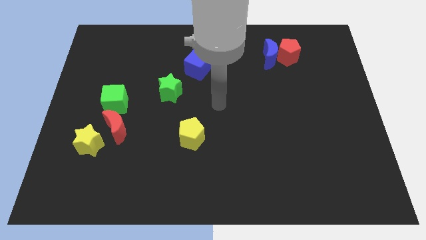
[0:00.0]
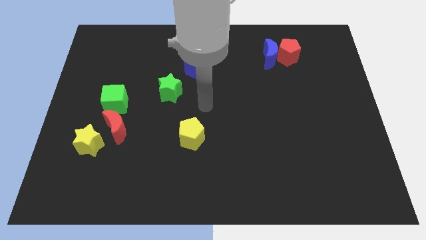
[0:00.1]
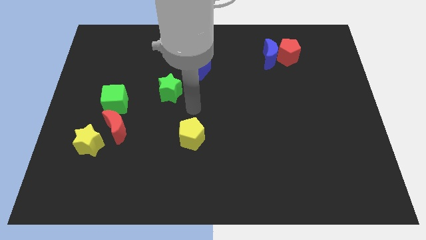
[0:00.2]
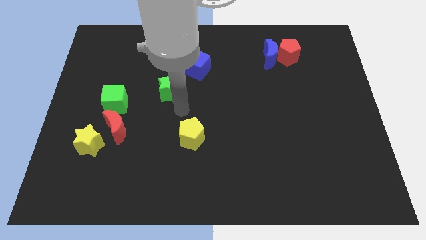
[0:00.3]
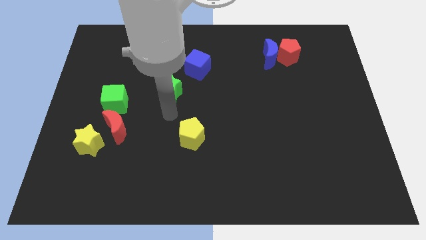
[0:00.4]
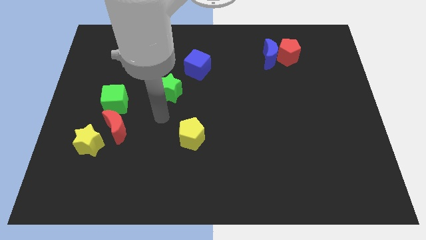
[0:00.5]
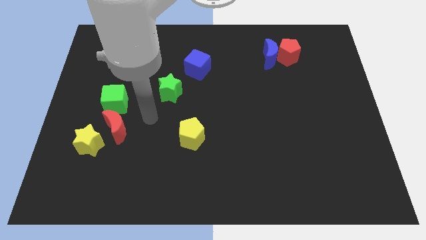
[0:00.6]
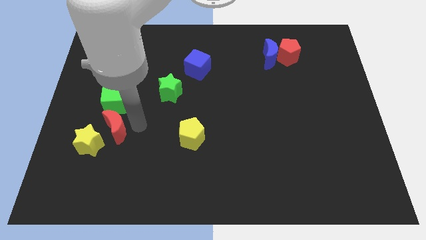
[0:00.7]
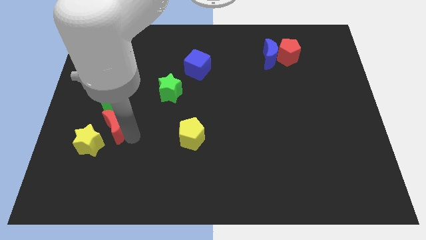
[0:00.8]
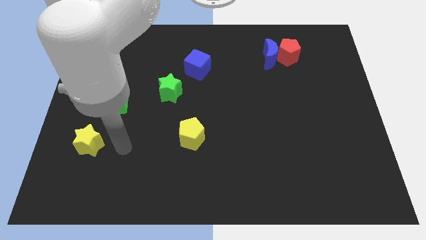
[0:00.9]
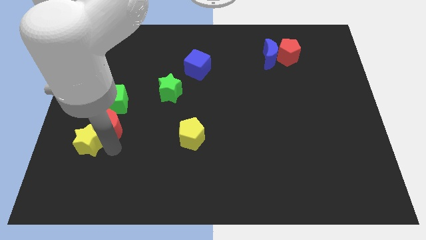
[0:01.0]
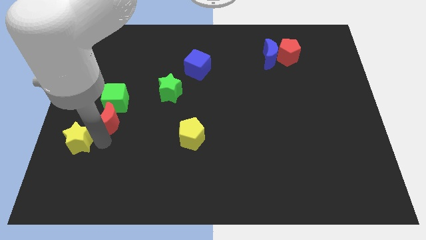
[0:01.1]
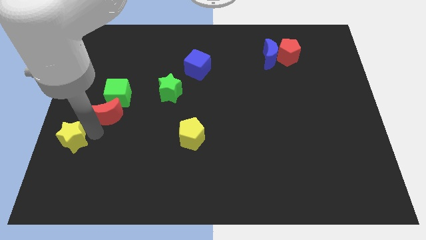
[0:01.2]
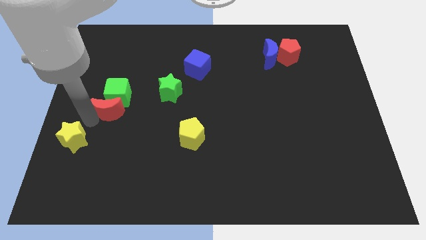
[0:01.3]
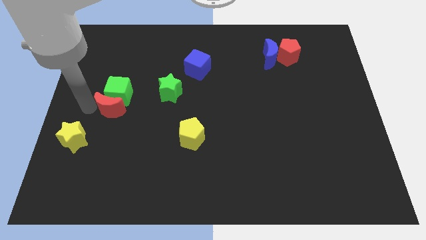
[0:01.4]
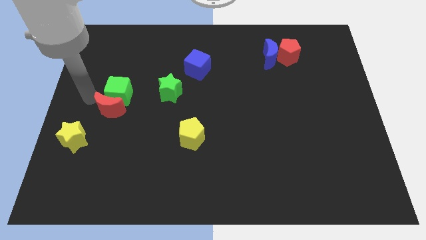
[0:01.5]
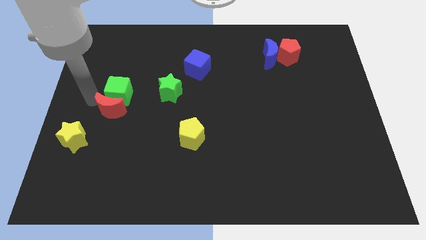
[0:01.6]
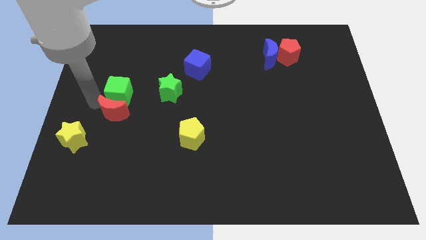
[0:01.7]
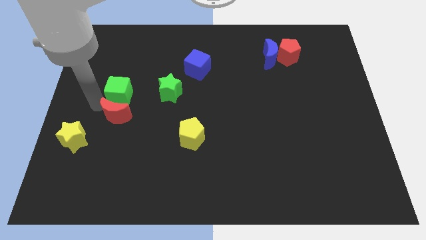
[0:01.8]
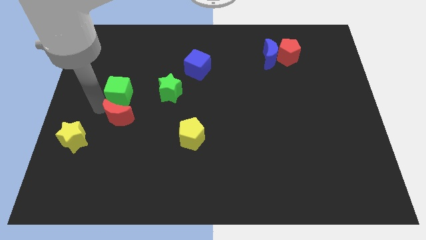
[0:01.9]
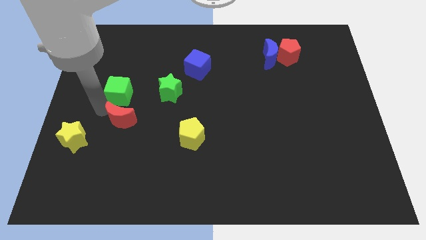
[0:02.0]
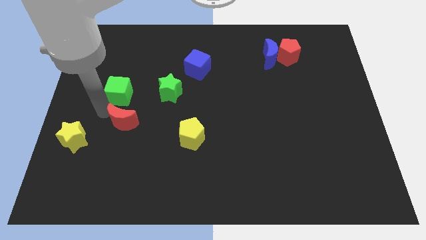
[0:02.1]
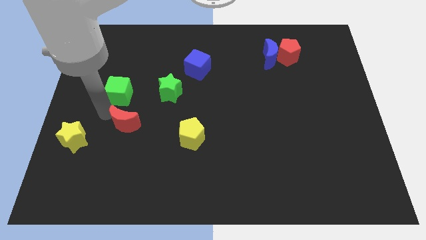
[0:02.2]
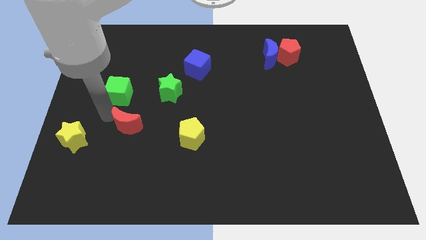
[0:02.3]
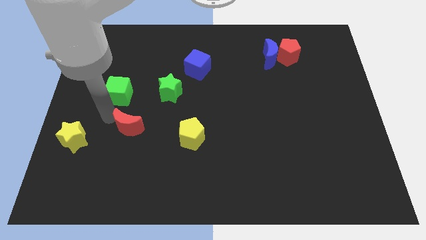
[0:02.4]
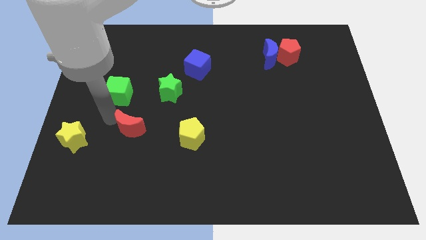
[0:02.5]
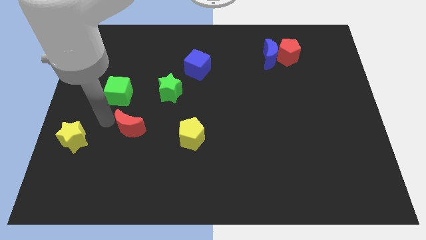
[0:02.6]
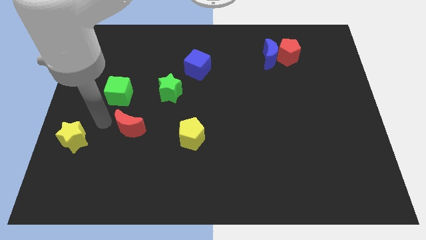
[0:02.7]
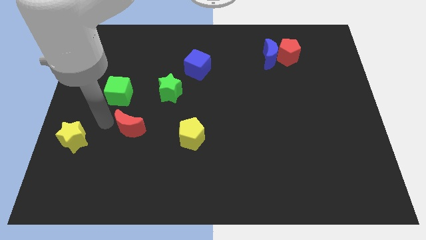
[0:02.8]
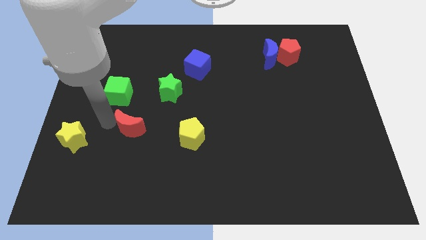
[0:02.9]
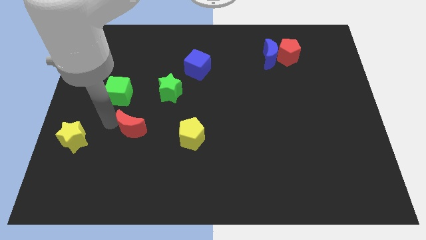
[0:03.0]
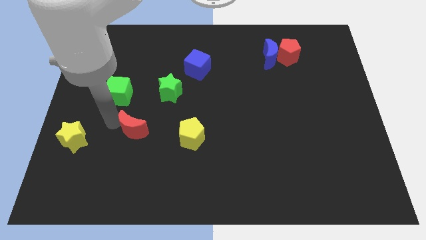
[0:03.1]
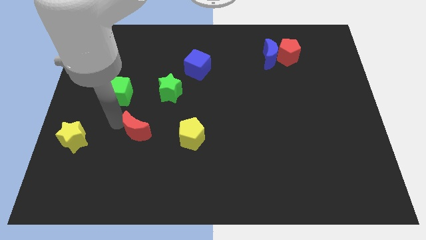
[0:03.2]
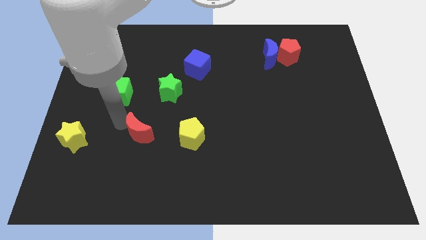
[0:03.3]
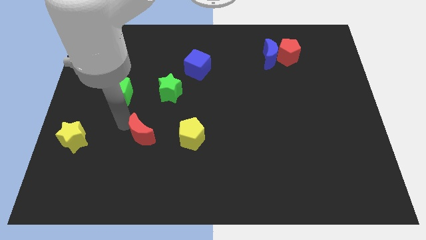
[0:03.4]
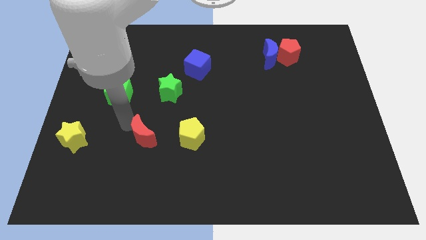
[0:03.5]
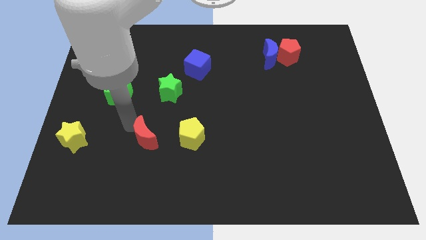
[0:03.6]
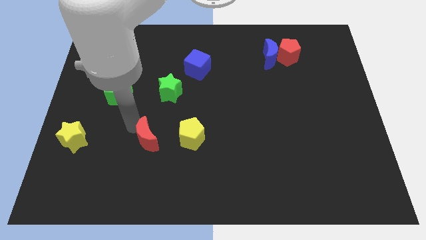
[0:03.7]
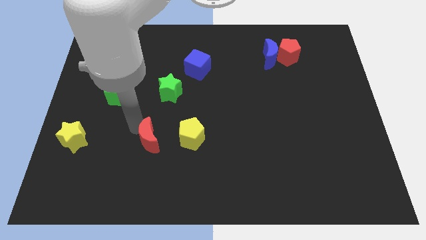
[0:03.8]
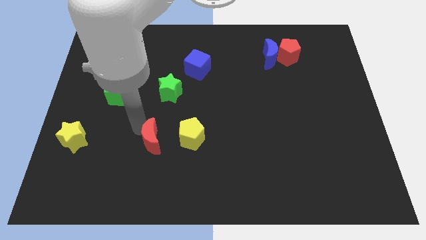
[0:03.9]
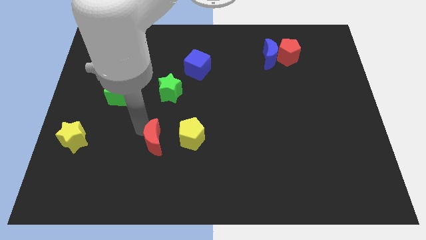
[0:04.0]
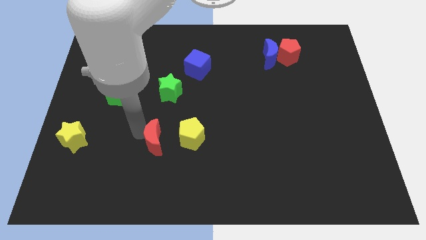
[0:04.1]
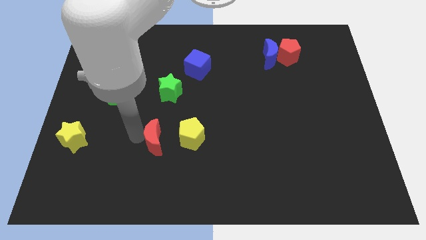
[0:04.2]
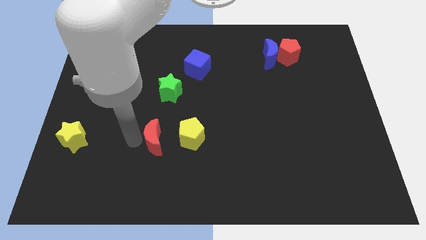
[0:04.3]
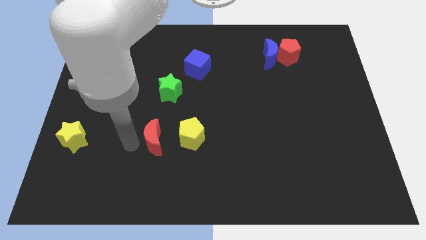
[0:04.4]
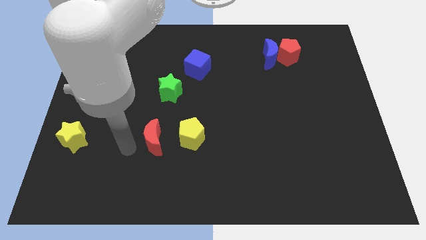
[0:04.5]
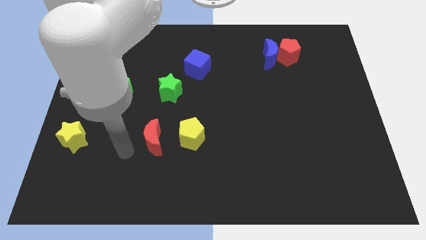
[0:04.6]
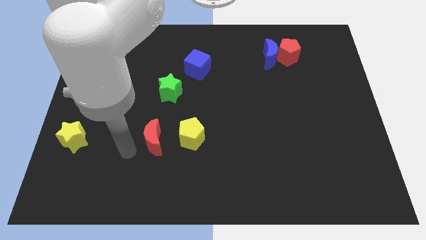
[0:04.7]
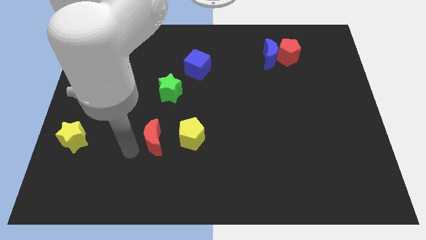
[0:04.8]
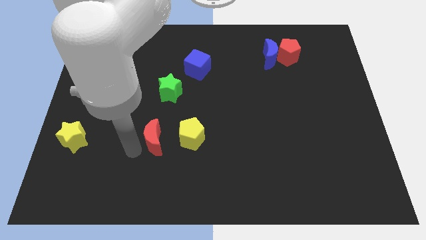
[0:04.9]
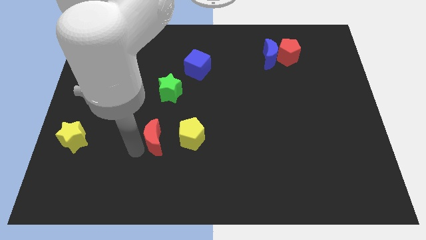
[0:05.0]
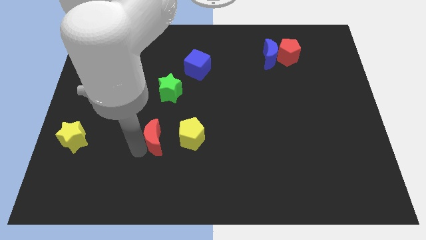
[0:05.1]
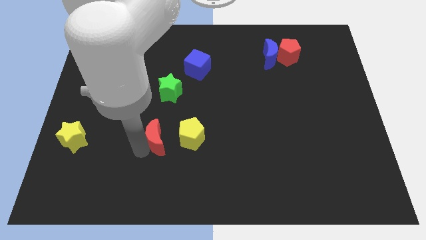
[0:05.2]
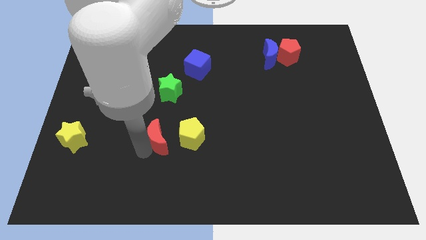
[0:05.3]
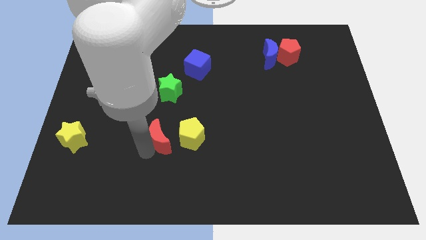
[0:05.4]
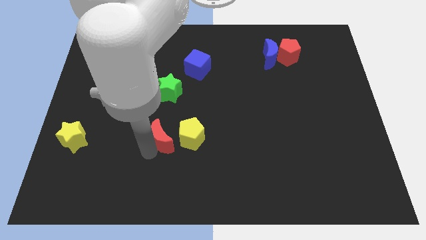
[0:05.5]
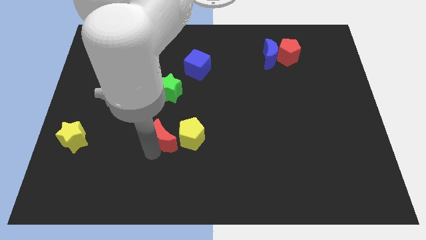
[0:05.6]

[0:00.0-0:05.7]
slide the red moon next to the yellow pentagon

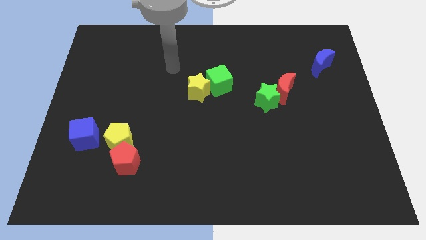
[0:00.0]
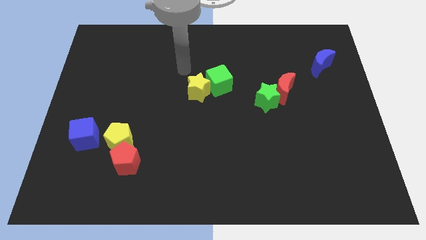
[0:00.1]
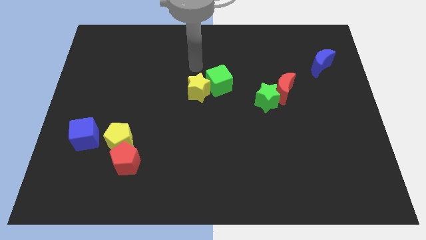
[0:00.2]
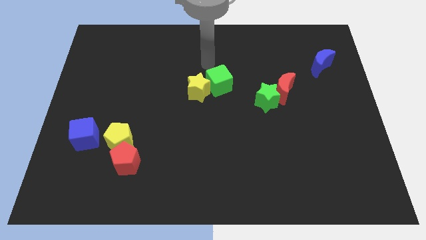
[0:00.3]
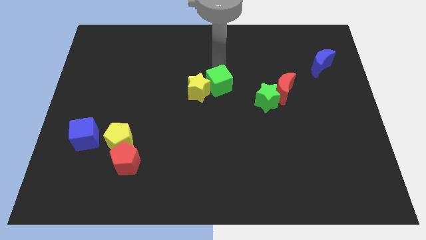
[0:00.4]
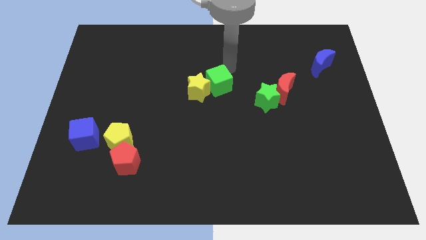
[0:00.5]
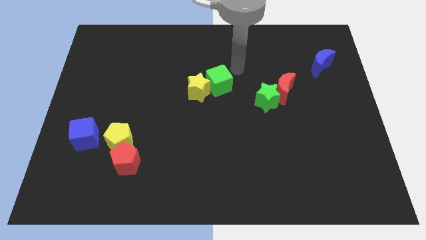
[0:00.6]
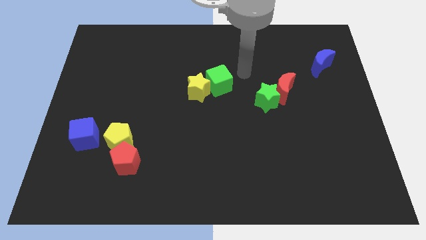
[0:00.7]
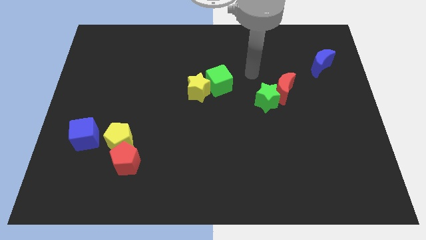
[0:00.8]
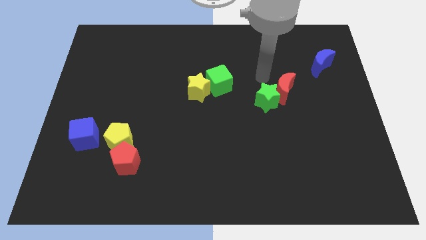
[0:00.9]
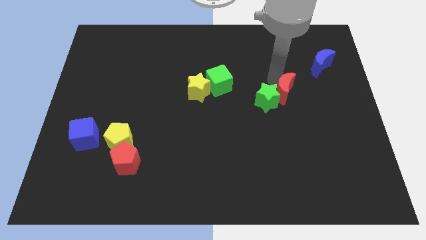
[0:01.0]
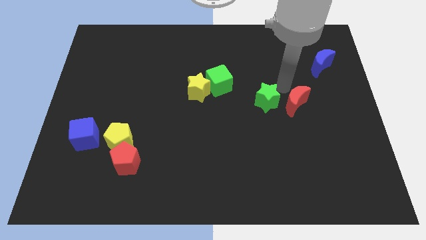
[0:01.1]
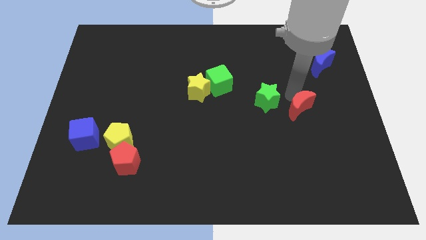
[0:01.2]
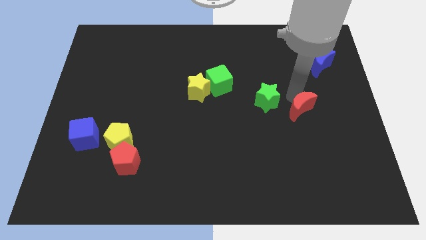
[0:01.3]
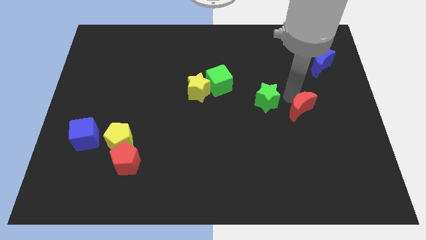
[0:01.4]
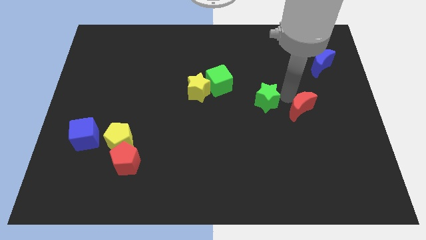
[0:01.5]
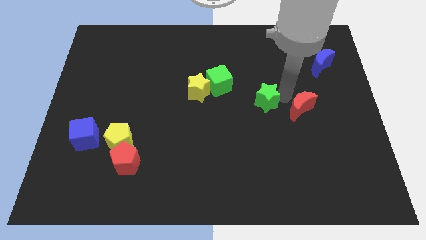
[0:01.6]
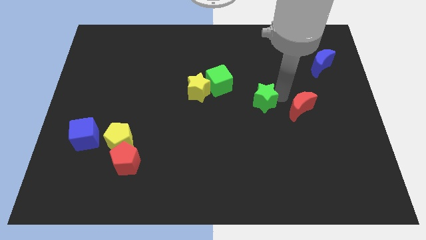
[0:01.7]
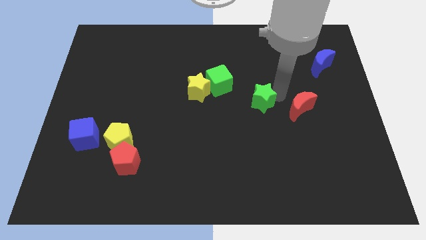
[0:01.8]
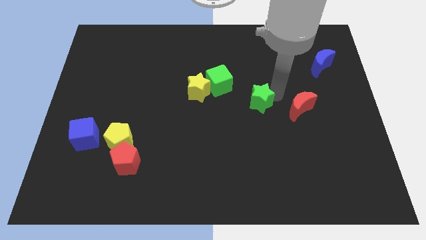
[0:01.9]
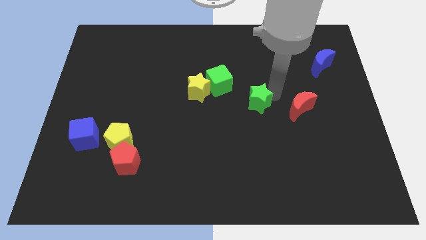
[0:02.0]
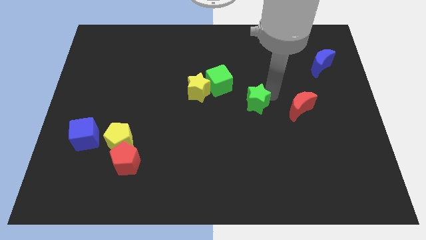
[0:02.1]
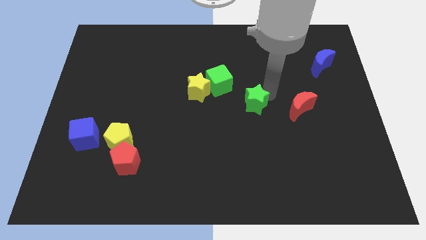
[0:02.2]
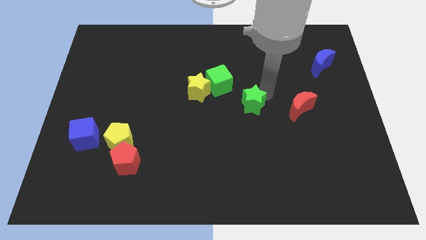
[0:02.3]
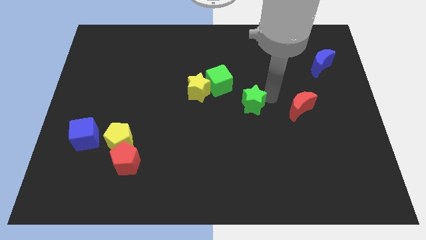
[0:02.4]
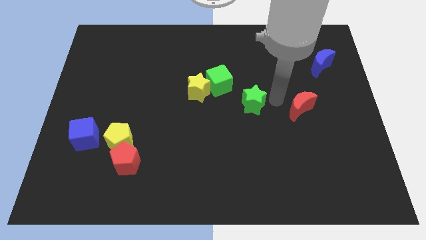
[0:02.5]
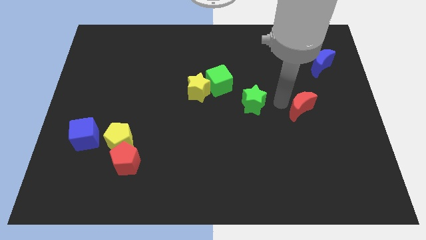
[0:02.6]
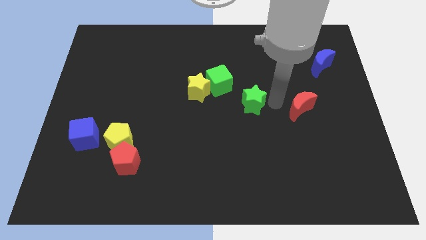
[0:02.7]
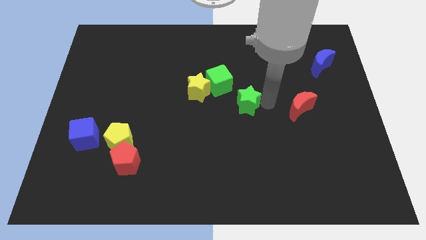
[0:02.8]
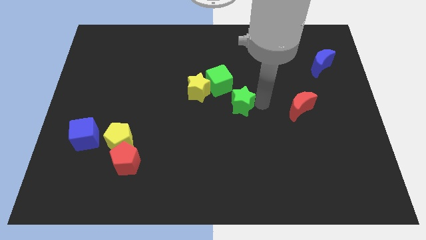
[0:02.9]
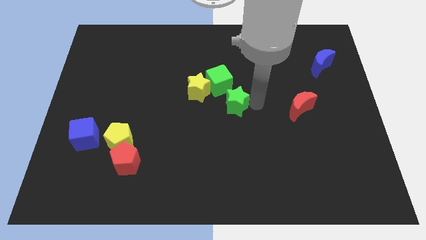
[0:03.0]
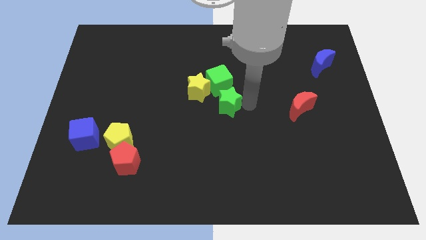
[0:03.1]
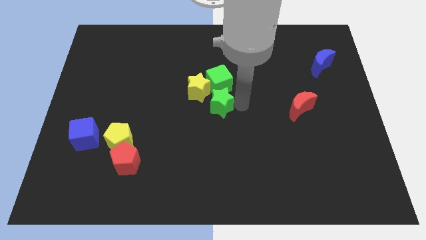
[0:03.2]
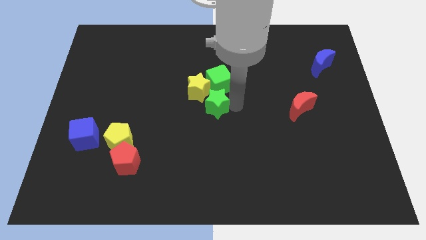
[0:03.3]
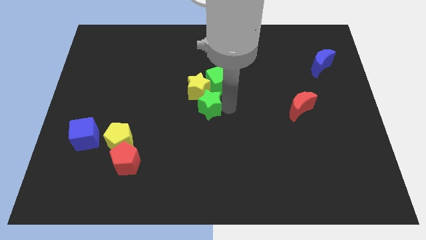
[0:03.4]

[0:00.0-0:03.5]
move the green star close to the yellow star
